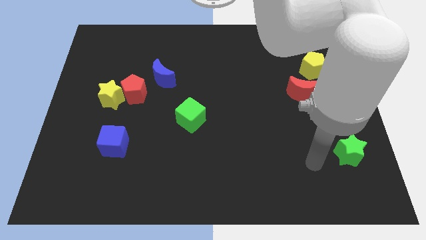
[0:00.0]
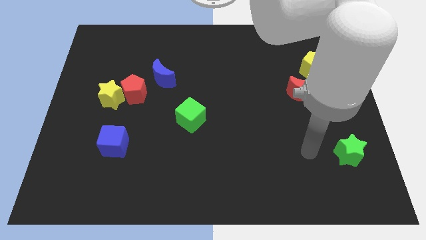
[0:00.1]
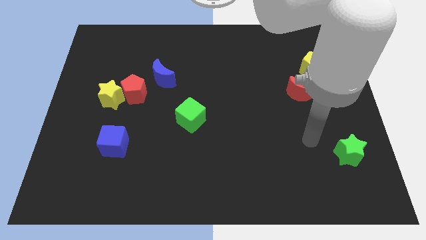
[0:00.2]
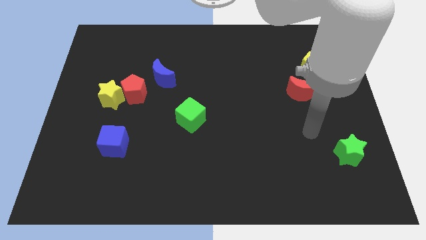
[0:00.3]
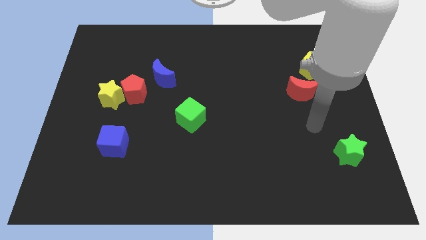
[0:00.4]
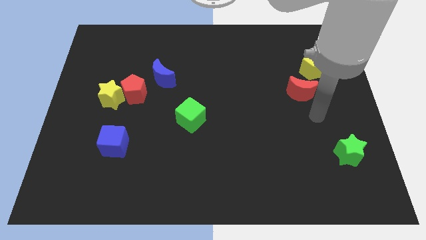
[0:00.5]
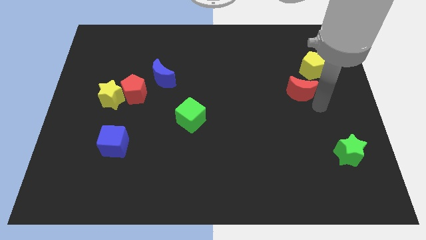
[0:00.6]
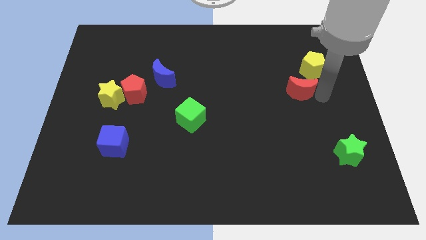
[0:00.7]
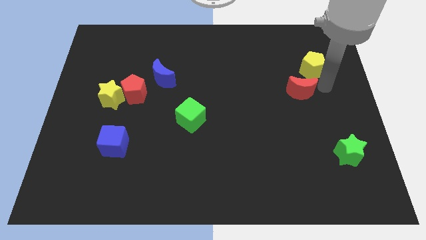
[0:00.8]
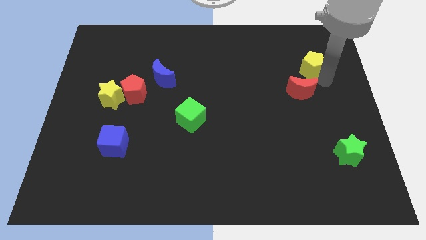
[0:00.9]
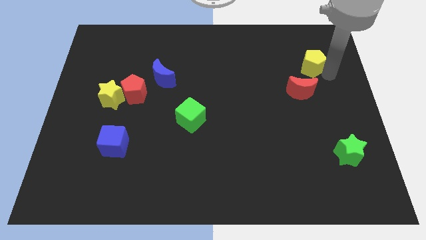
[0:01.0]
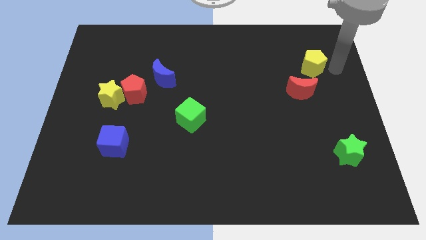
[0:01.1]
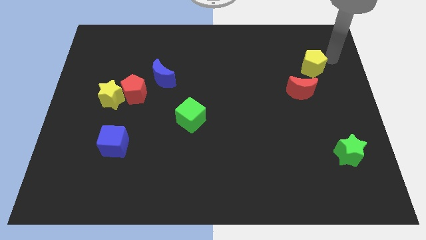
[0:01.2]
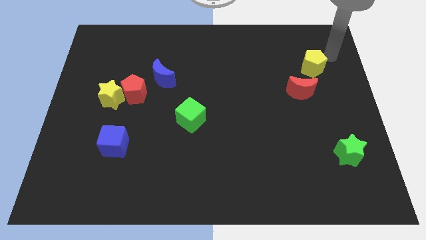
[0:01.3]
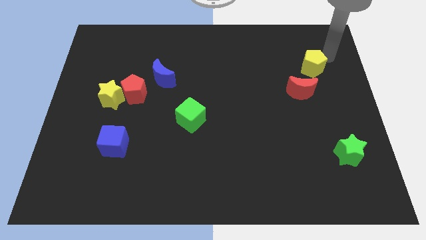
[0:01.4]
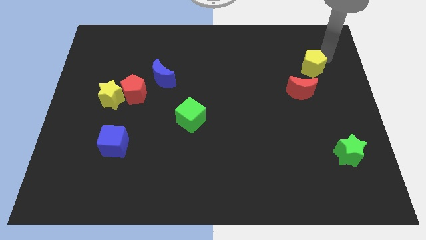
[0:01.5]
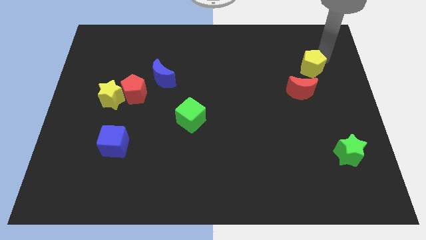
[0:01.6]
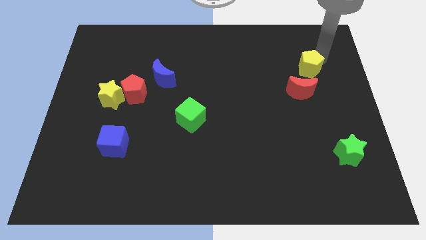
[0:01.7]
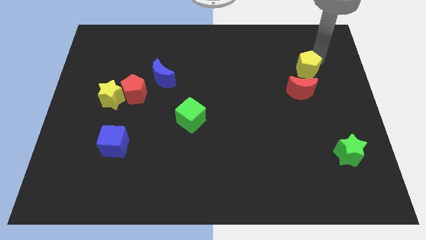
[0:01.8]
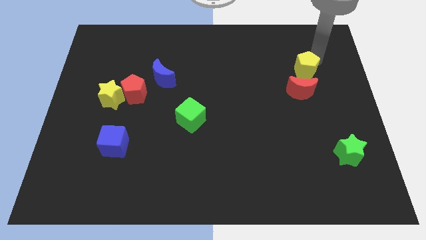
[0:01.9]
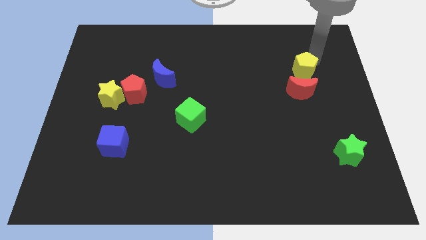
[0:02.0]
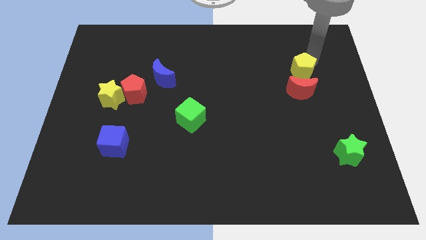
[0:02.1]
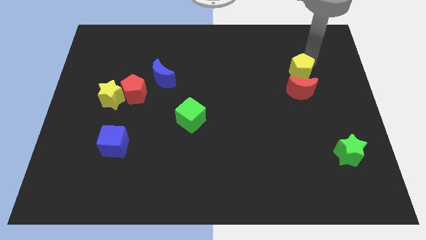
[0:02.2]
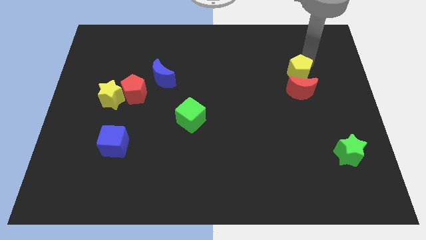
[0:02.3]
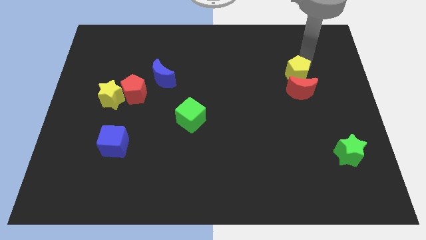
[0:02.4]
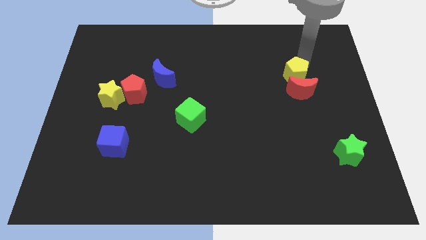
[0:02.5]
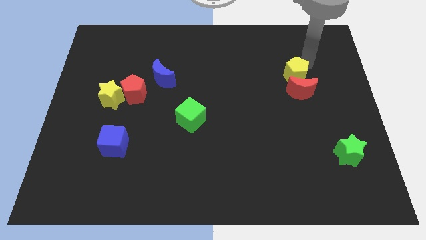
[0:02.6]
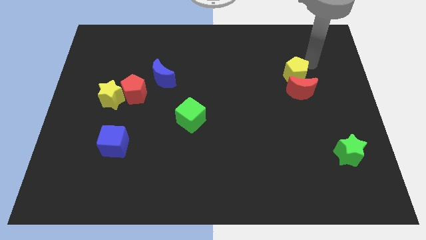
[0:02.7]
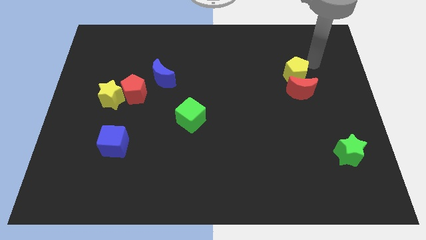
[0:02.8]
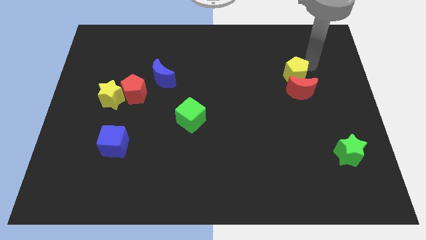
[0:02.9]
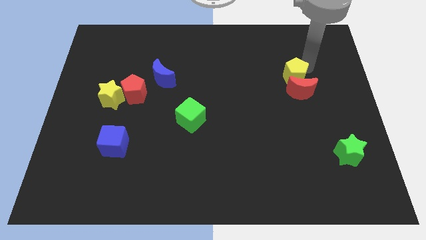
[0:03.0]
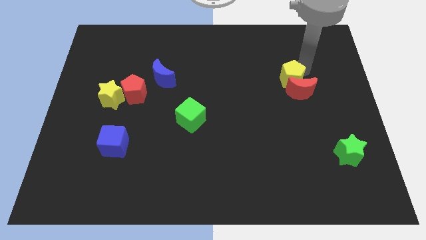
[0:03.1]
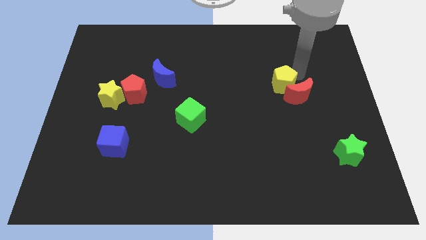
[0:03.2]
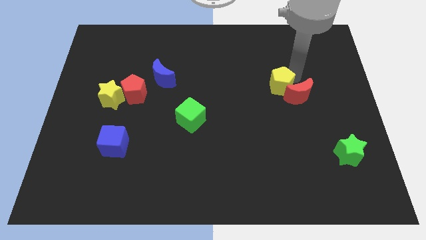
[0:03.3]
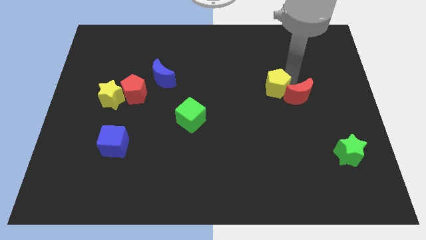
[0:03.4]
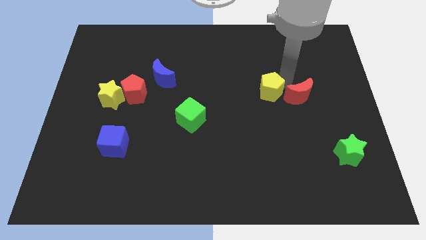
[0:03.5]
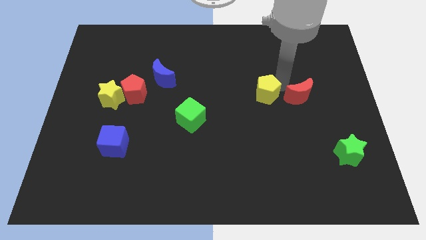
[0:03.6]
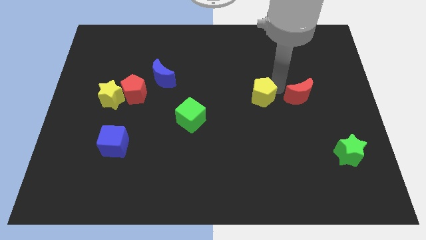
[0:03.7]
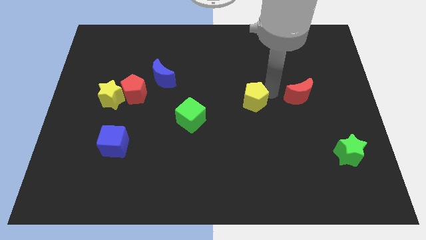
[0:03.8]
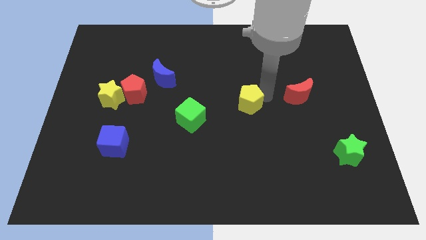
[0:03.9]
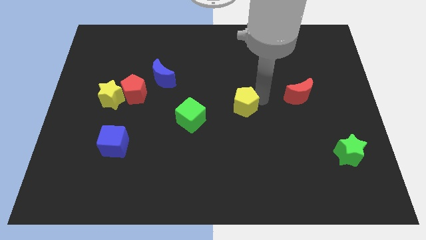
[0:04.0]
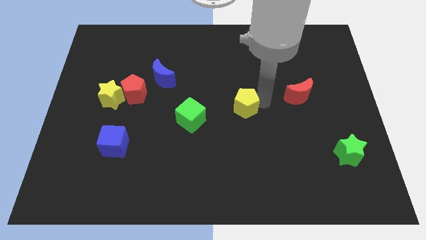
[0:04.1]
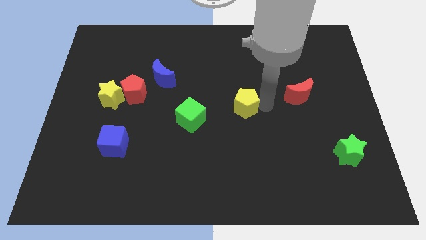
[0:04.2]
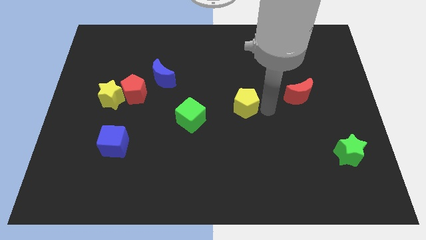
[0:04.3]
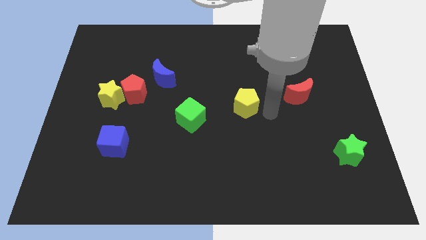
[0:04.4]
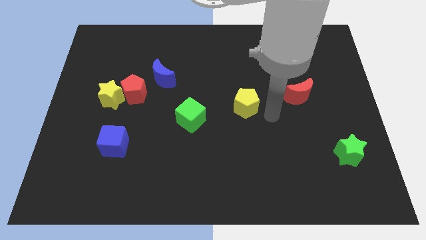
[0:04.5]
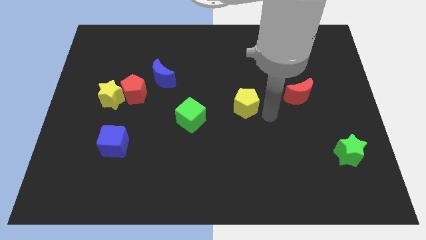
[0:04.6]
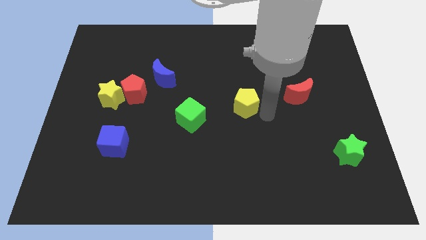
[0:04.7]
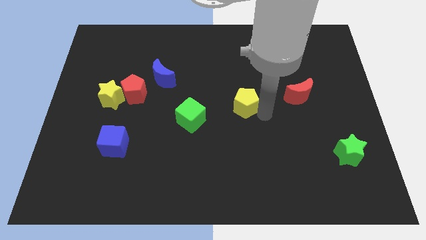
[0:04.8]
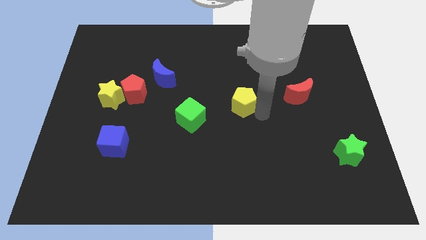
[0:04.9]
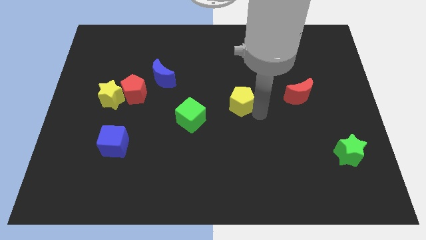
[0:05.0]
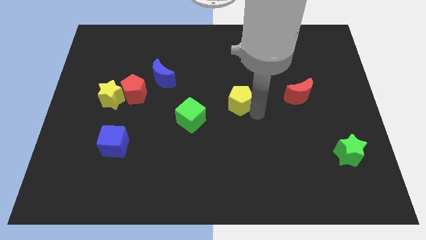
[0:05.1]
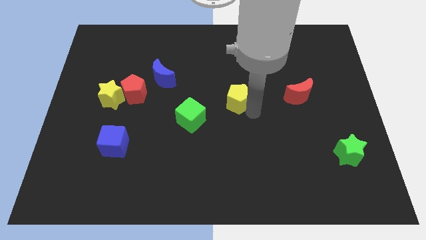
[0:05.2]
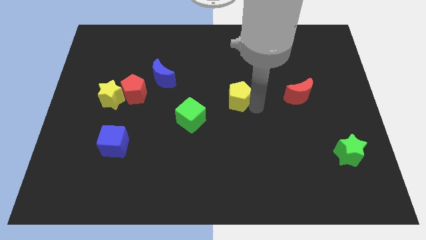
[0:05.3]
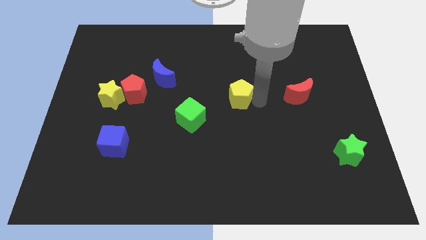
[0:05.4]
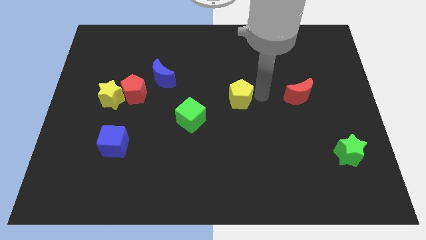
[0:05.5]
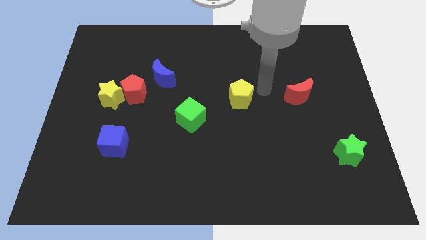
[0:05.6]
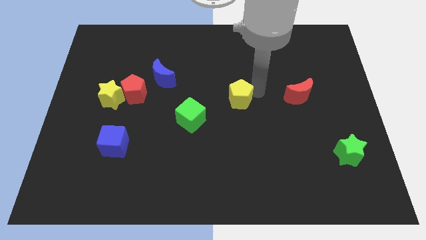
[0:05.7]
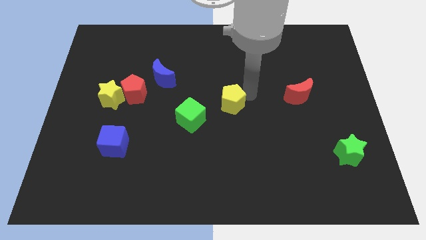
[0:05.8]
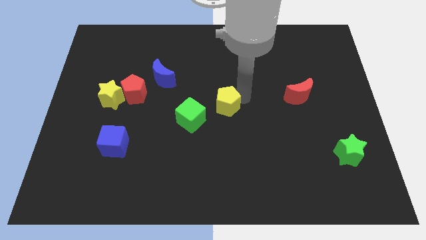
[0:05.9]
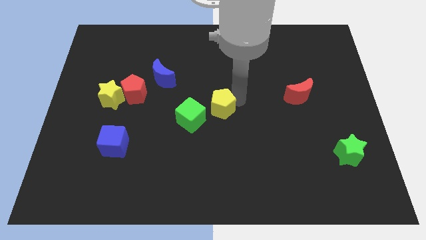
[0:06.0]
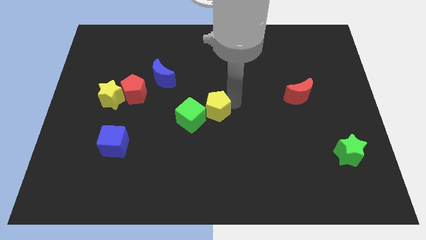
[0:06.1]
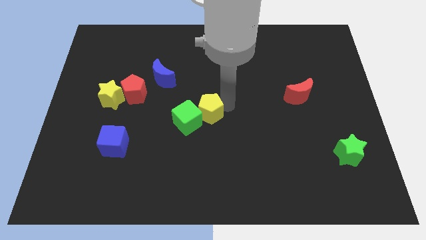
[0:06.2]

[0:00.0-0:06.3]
push the yellow pentagon close to the green cube

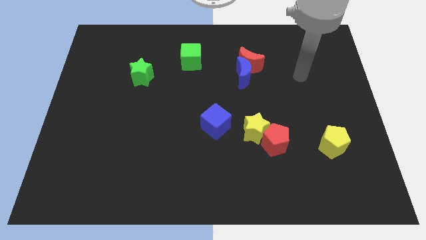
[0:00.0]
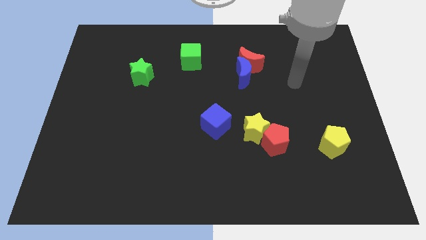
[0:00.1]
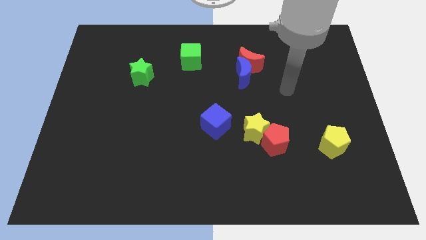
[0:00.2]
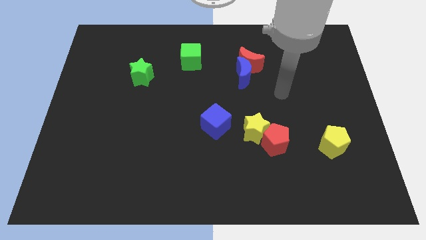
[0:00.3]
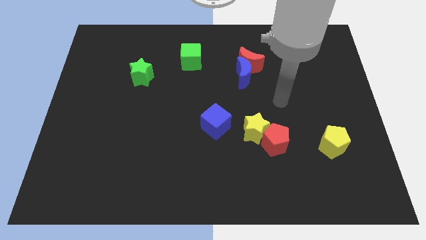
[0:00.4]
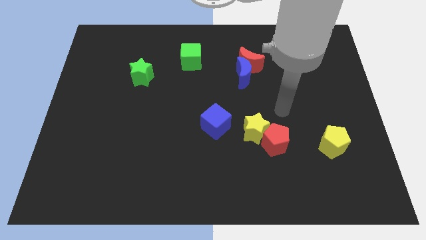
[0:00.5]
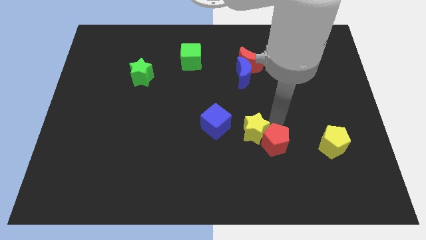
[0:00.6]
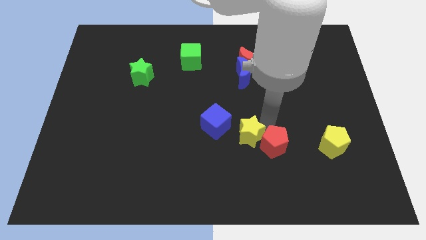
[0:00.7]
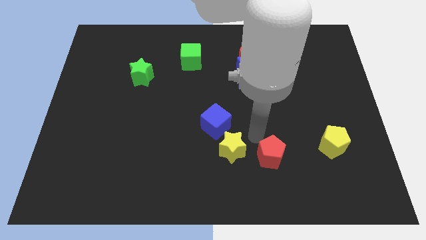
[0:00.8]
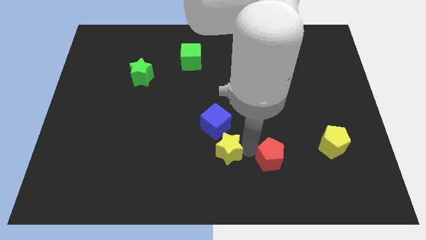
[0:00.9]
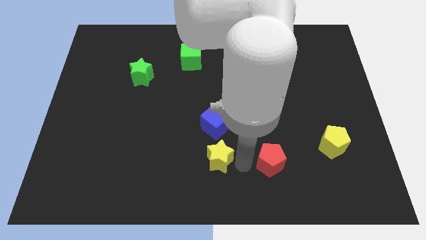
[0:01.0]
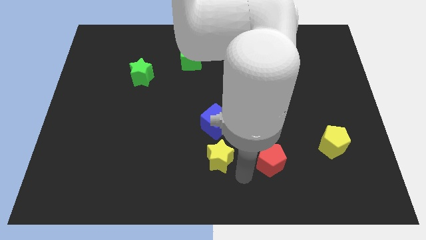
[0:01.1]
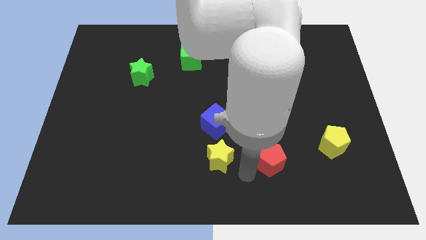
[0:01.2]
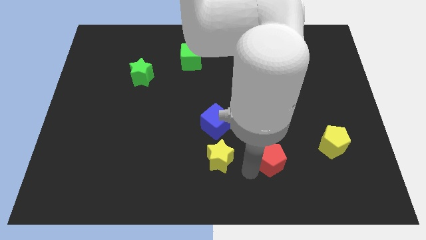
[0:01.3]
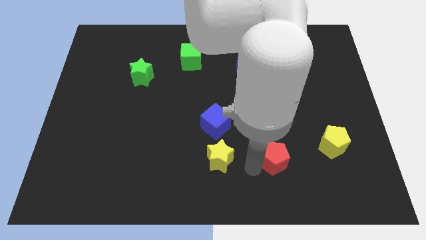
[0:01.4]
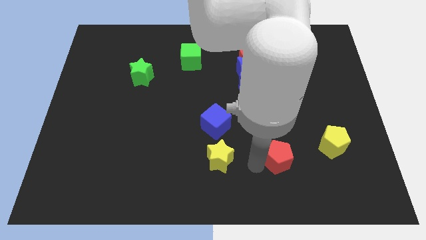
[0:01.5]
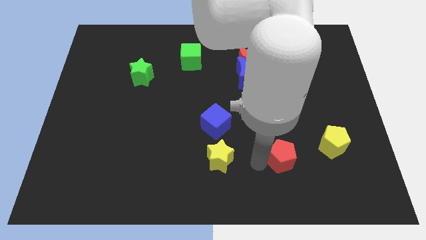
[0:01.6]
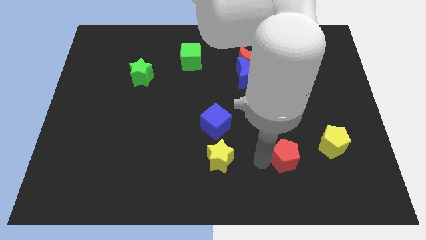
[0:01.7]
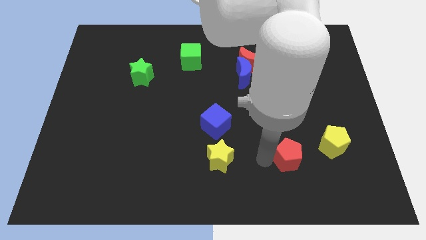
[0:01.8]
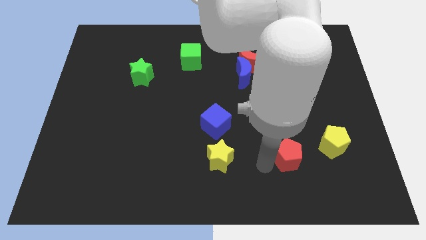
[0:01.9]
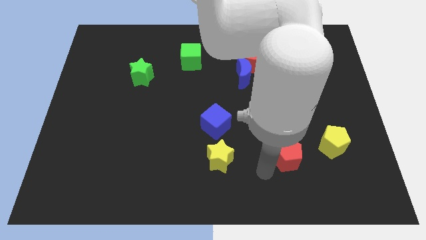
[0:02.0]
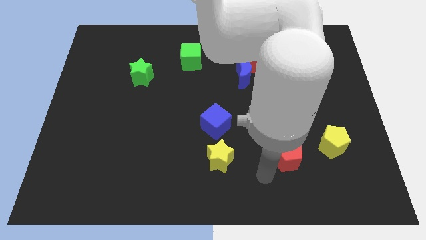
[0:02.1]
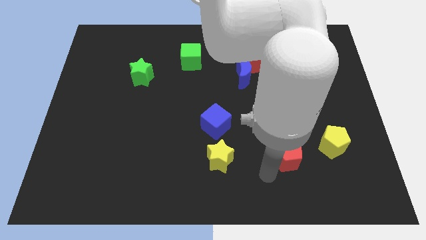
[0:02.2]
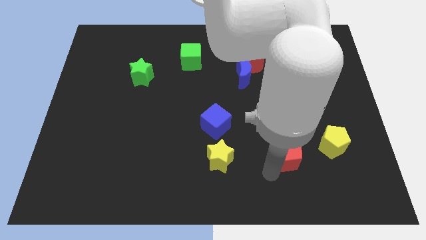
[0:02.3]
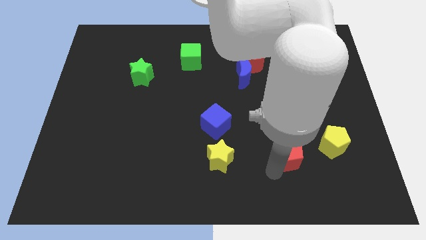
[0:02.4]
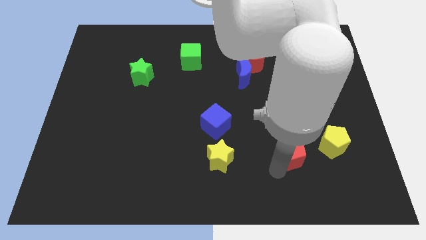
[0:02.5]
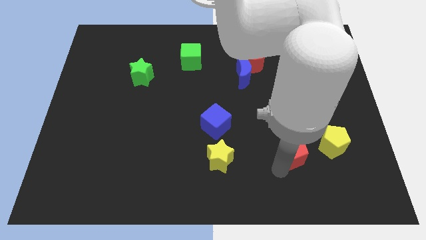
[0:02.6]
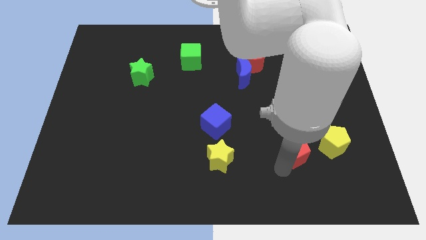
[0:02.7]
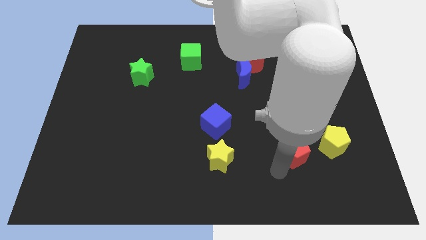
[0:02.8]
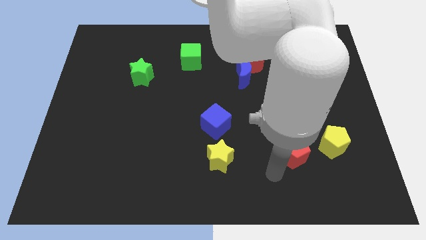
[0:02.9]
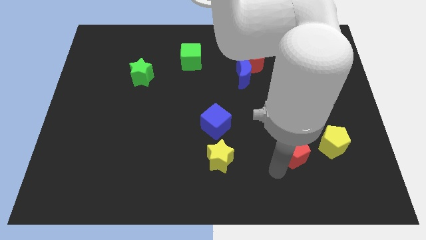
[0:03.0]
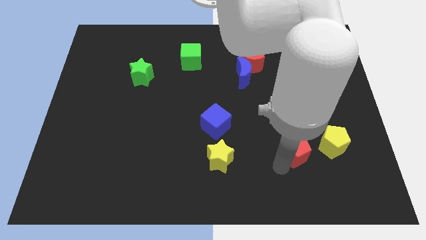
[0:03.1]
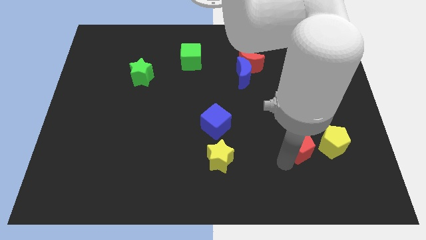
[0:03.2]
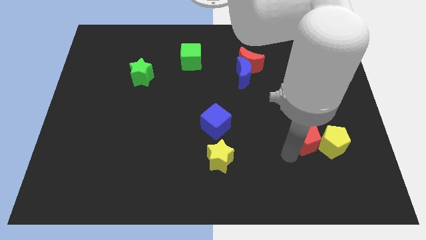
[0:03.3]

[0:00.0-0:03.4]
put the red pentagon close to the yellow pentagon
